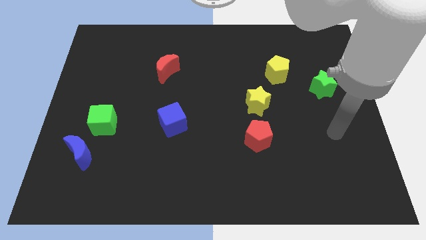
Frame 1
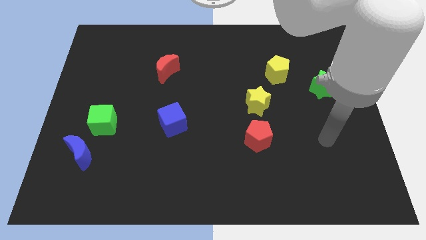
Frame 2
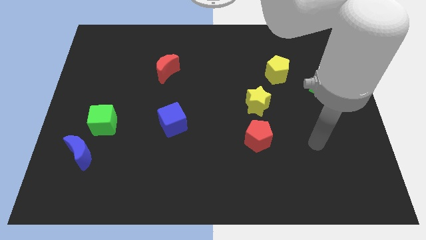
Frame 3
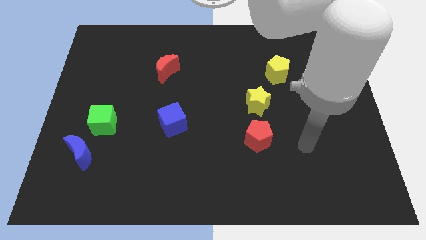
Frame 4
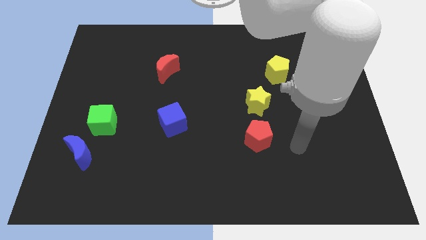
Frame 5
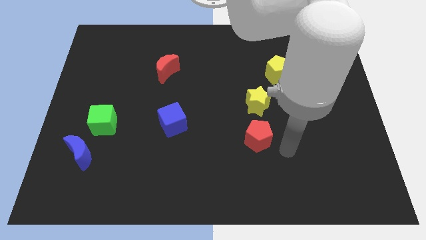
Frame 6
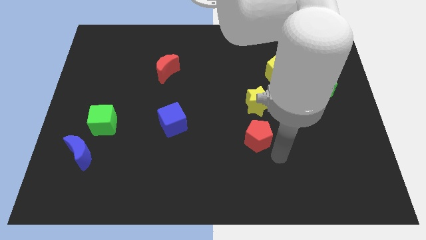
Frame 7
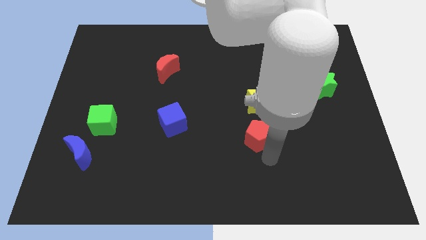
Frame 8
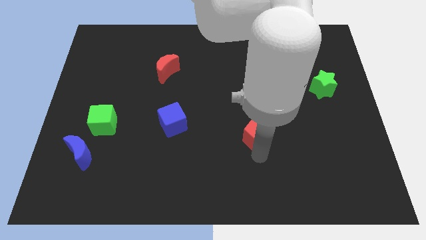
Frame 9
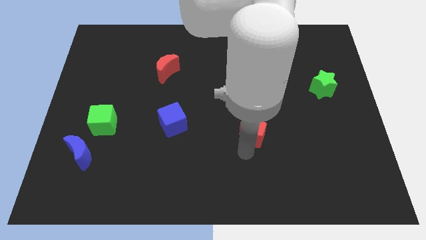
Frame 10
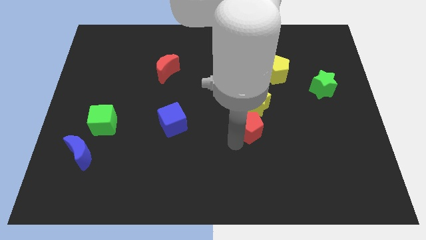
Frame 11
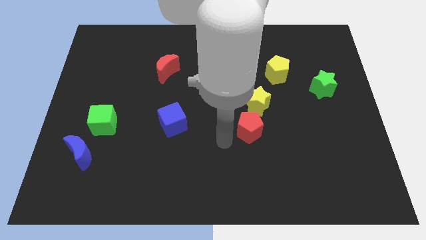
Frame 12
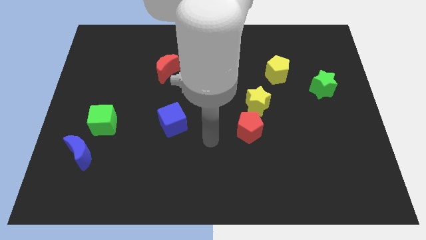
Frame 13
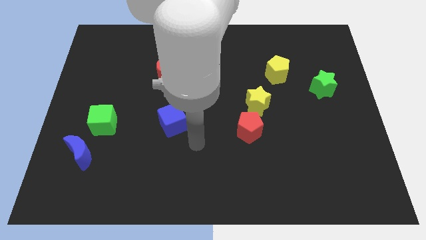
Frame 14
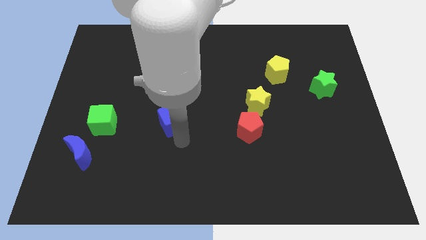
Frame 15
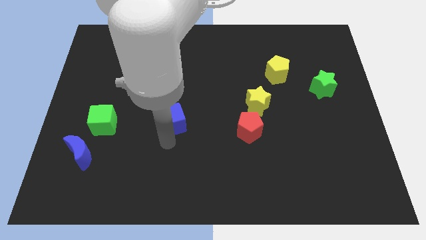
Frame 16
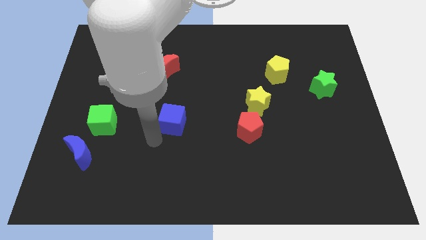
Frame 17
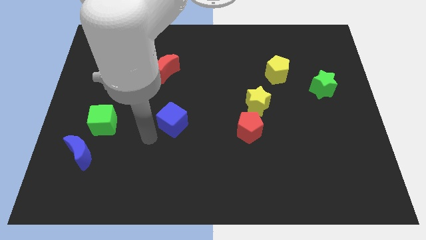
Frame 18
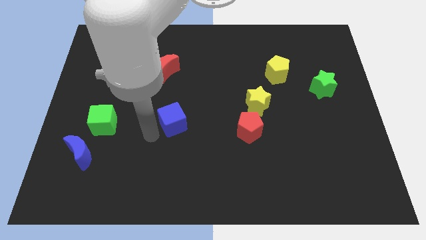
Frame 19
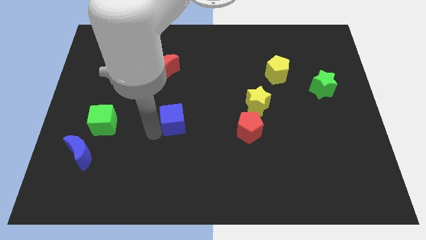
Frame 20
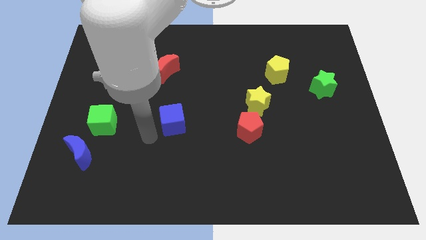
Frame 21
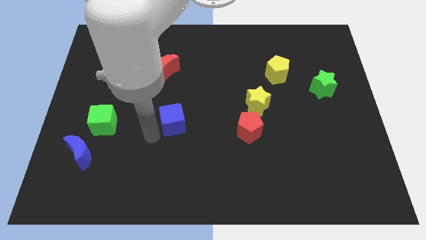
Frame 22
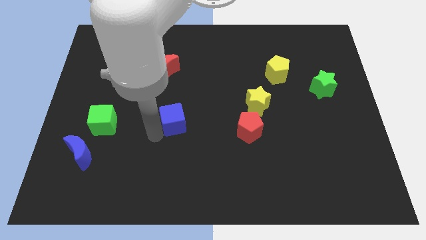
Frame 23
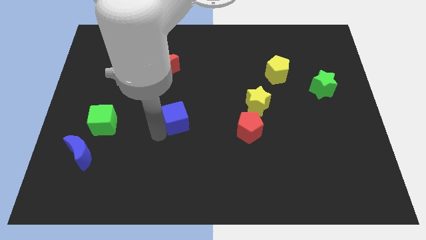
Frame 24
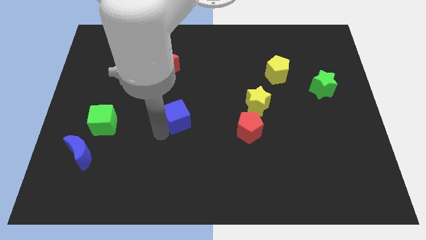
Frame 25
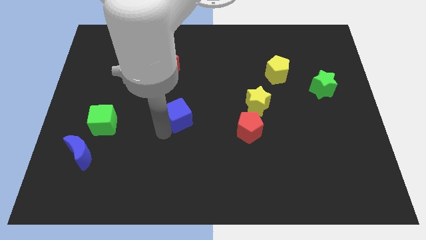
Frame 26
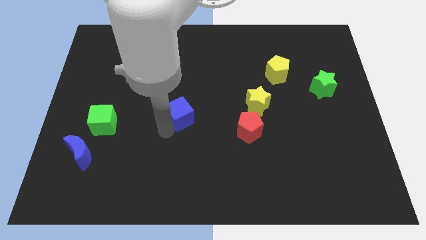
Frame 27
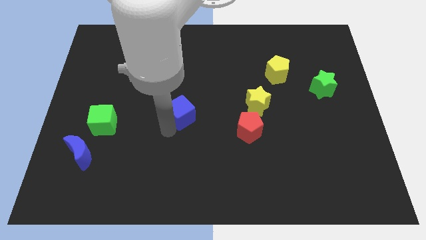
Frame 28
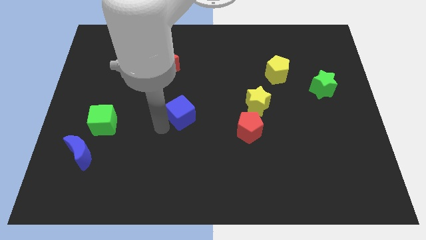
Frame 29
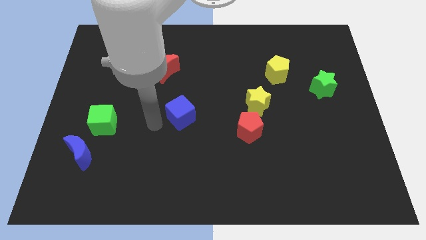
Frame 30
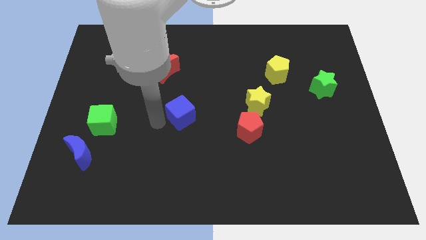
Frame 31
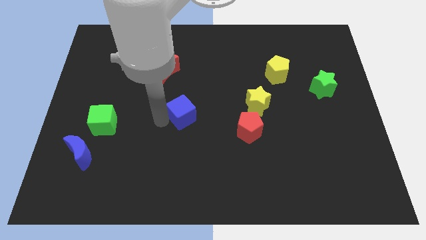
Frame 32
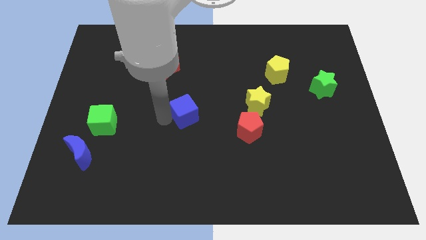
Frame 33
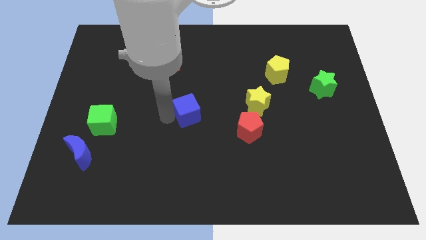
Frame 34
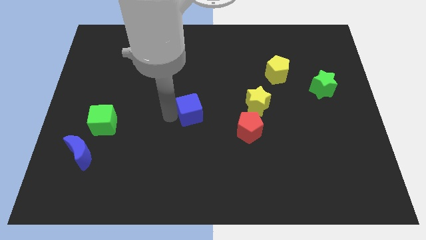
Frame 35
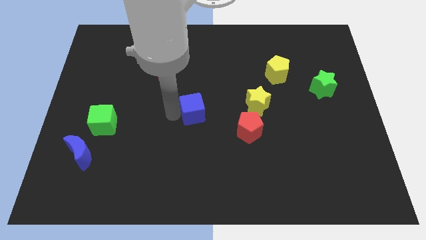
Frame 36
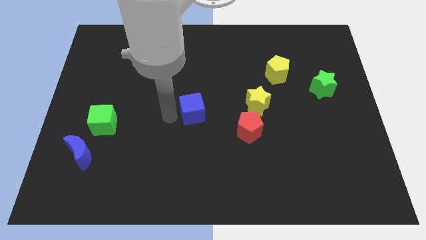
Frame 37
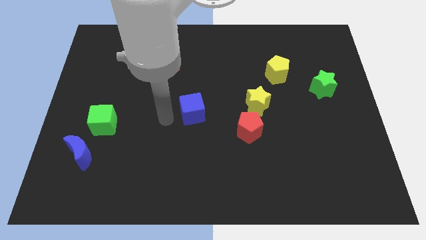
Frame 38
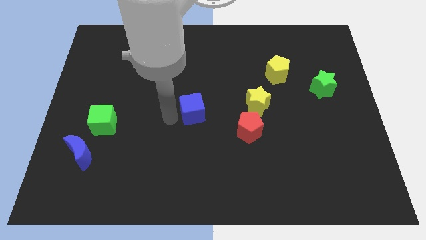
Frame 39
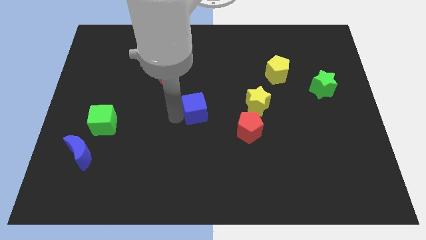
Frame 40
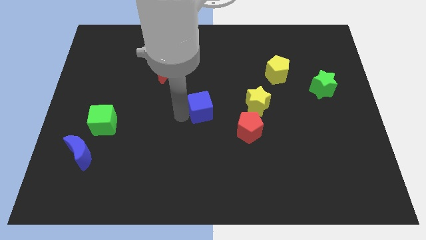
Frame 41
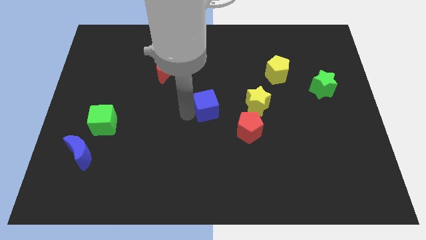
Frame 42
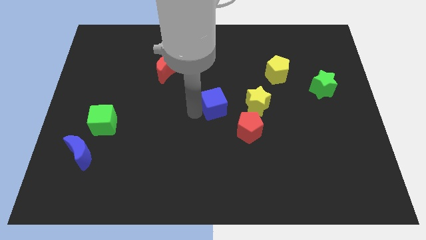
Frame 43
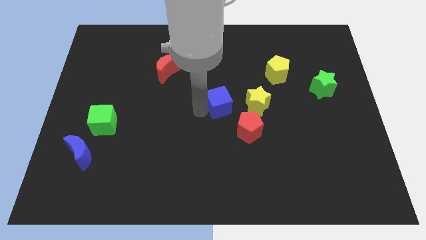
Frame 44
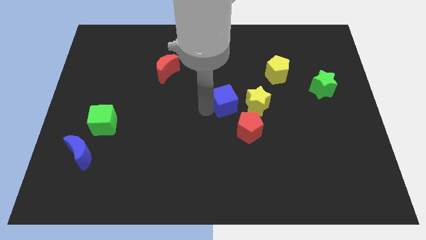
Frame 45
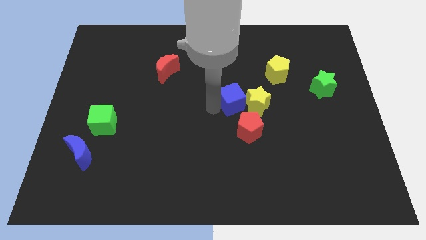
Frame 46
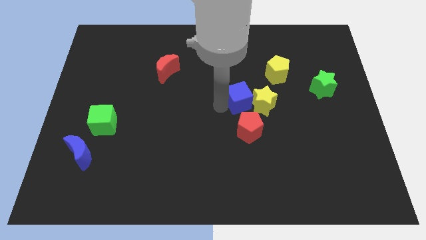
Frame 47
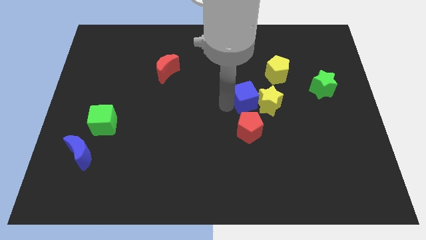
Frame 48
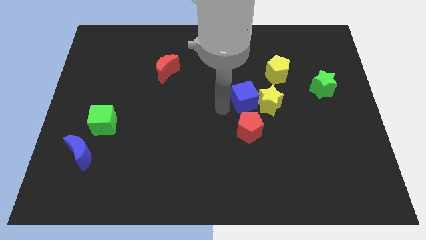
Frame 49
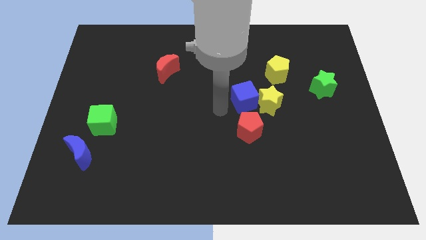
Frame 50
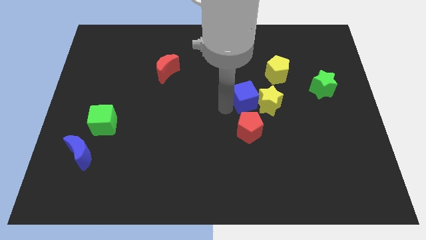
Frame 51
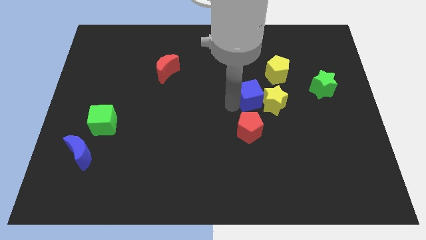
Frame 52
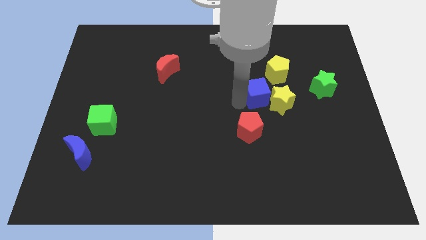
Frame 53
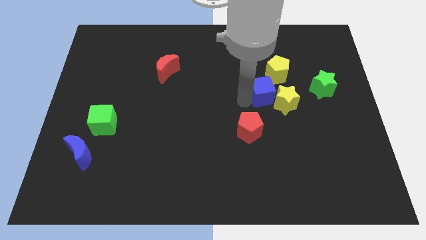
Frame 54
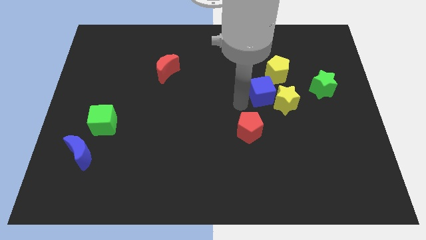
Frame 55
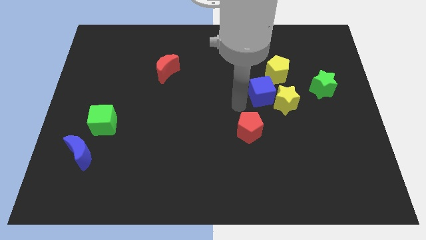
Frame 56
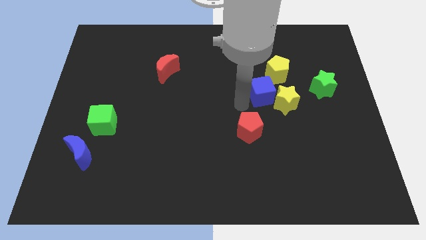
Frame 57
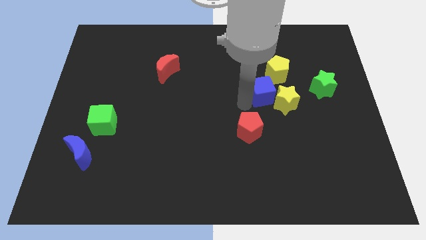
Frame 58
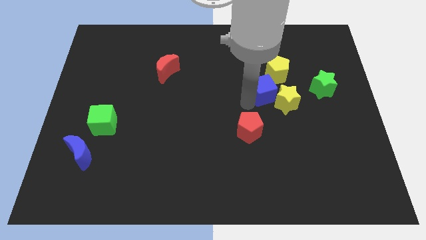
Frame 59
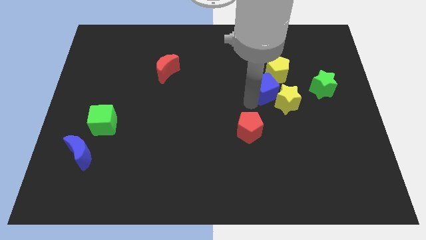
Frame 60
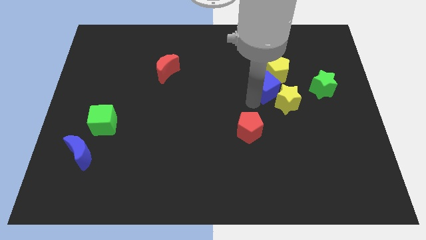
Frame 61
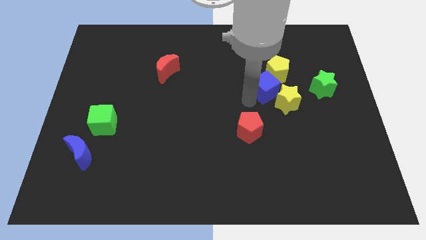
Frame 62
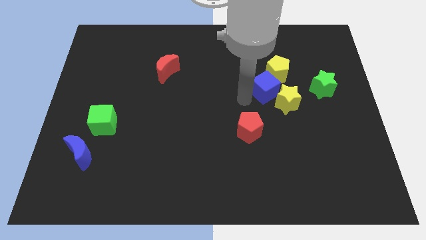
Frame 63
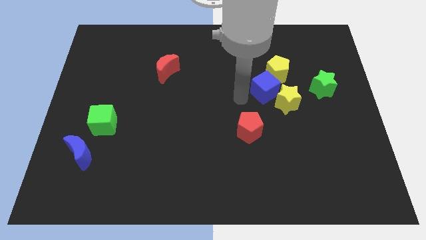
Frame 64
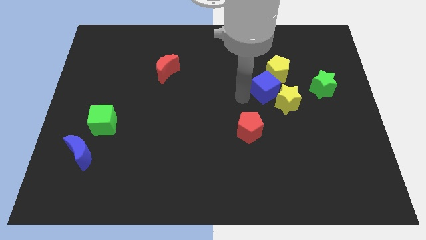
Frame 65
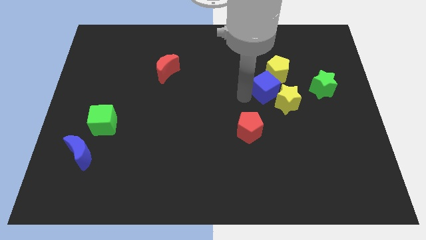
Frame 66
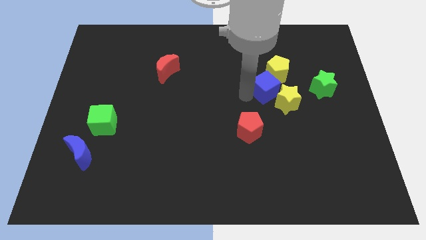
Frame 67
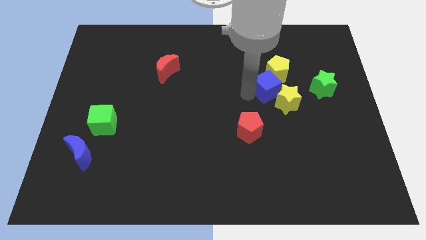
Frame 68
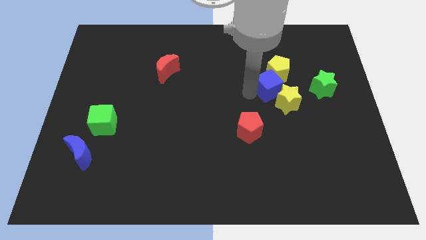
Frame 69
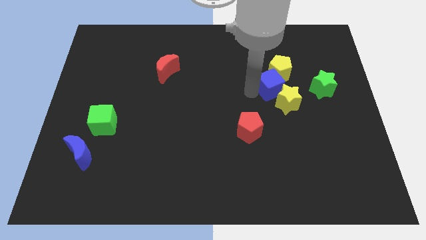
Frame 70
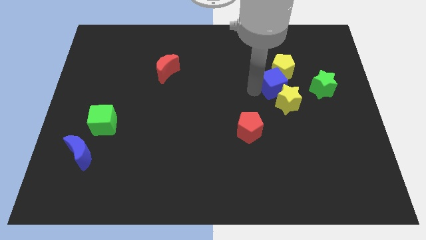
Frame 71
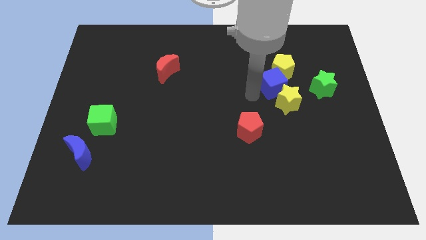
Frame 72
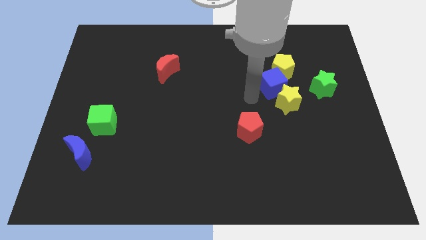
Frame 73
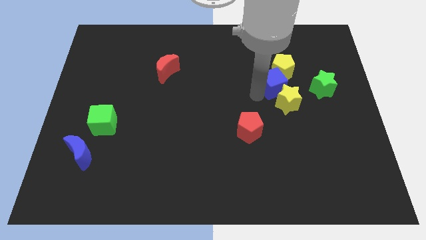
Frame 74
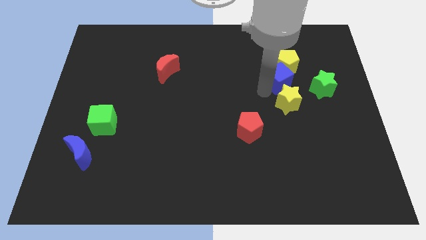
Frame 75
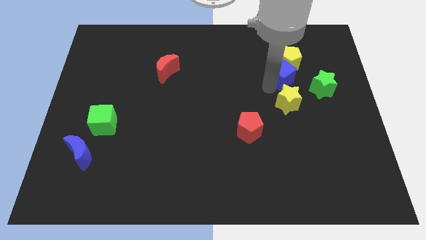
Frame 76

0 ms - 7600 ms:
slide the blue cube to the top left of the green star
